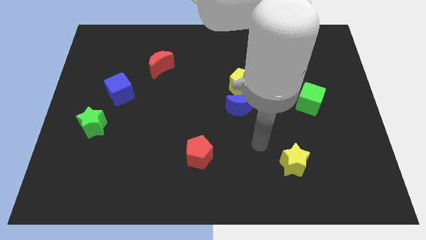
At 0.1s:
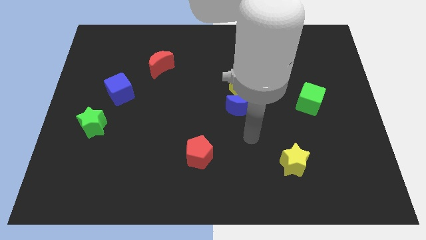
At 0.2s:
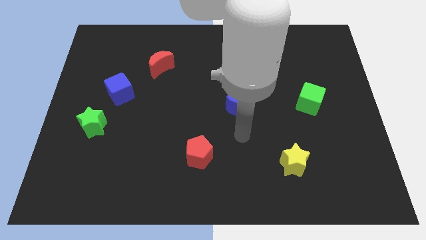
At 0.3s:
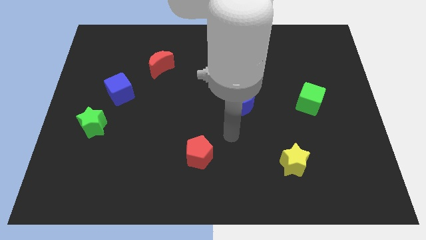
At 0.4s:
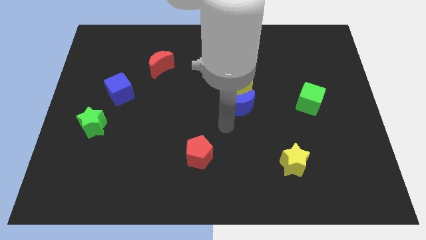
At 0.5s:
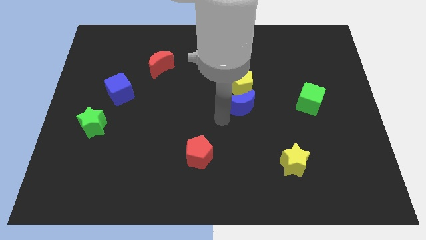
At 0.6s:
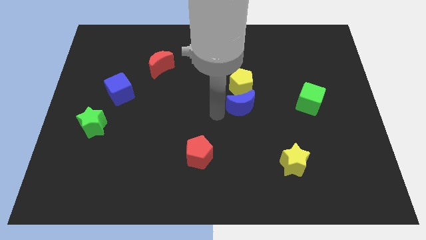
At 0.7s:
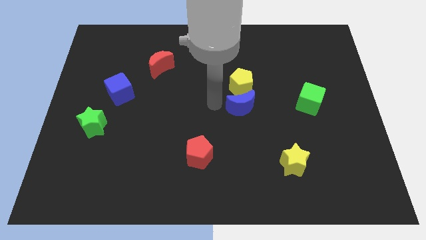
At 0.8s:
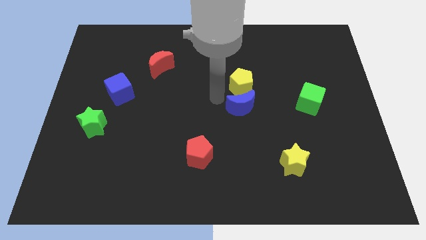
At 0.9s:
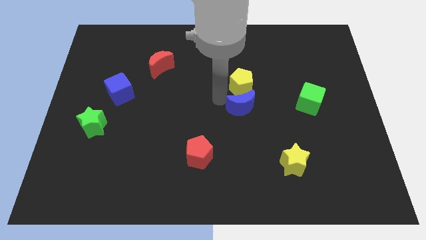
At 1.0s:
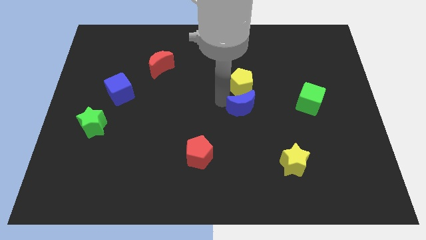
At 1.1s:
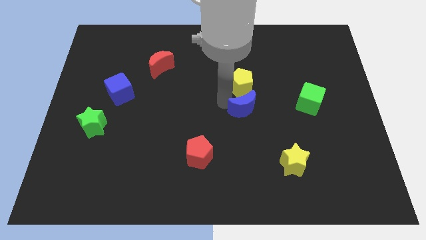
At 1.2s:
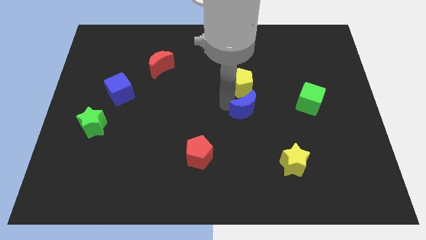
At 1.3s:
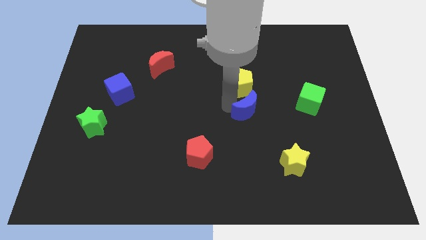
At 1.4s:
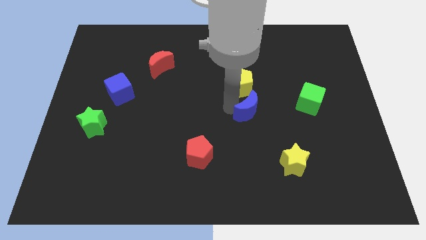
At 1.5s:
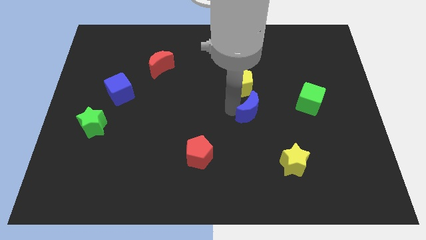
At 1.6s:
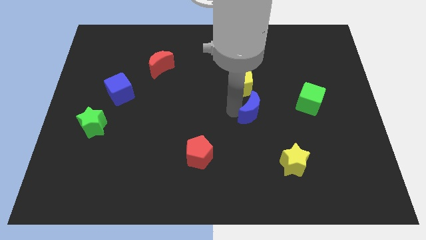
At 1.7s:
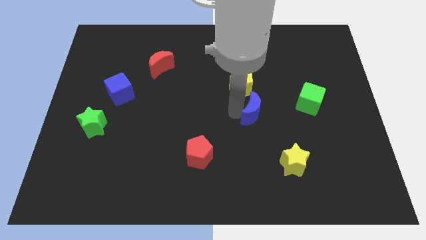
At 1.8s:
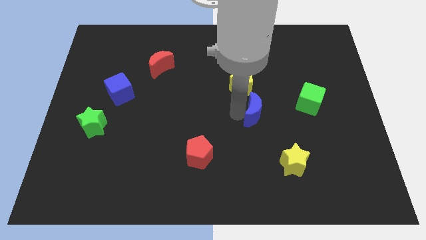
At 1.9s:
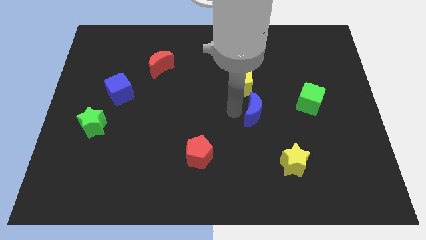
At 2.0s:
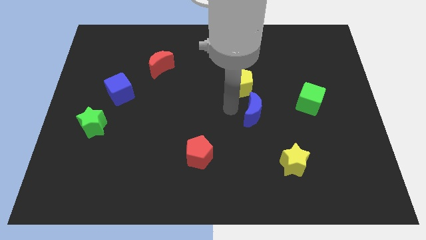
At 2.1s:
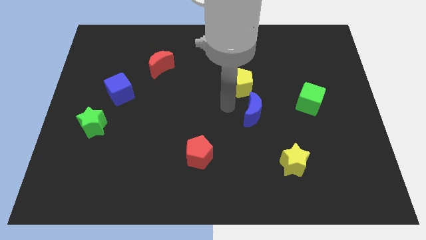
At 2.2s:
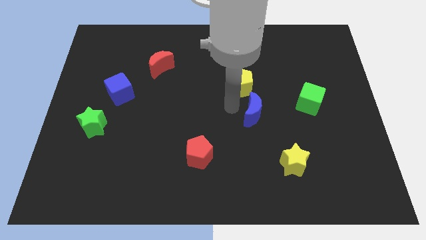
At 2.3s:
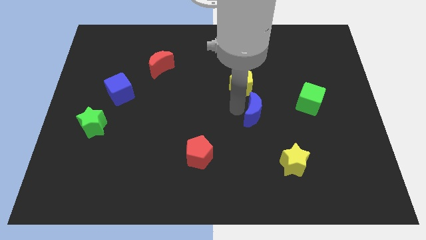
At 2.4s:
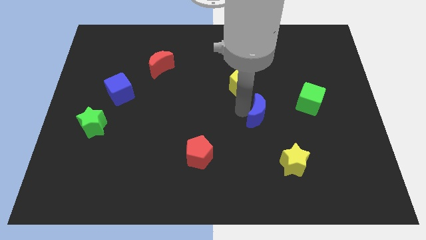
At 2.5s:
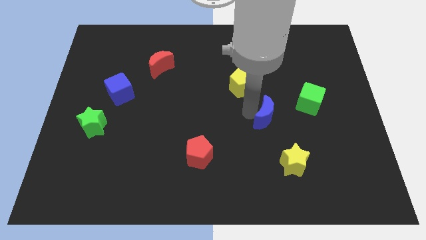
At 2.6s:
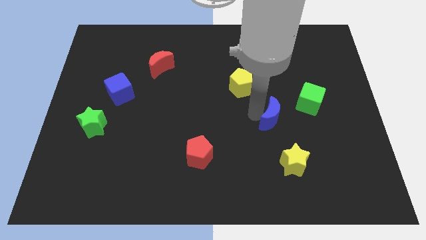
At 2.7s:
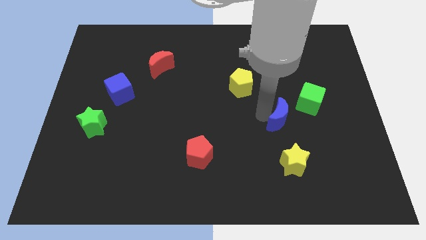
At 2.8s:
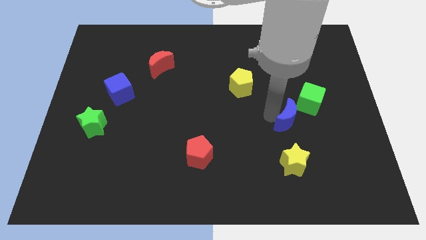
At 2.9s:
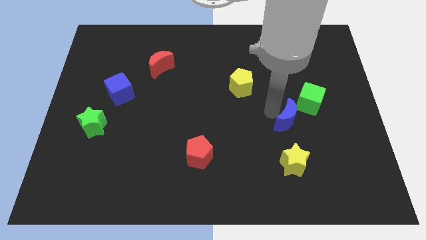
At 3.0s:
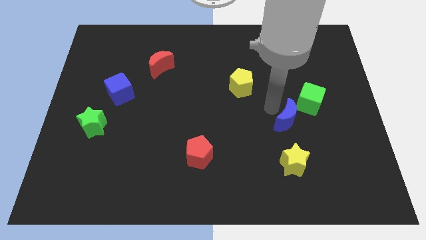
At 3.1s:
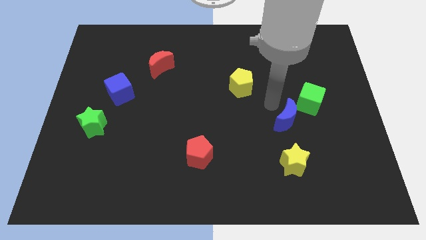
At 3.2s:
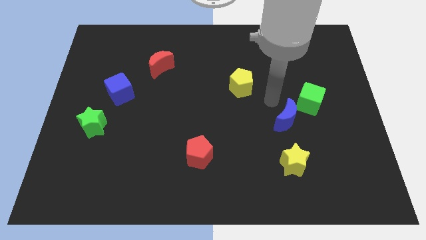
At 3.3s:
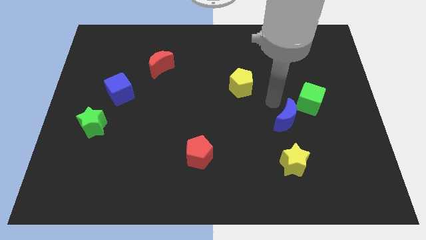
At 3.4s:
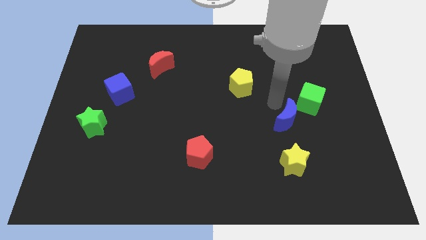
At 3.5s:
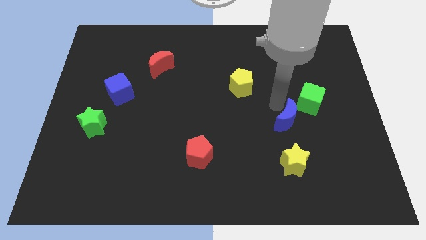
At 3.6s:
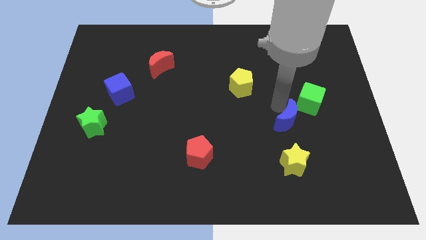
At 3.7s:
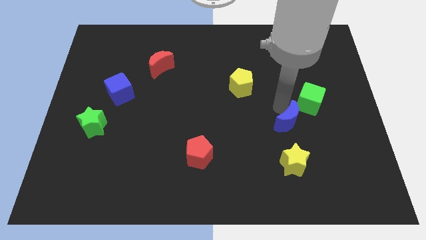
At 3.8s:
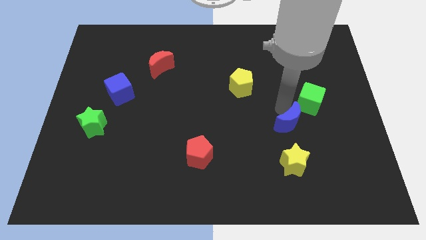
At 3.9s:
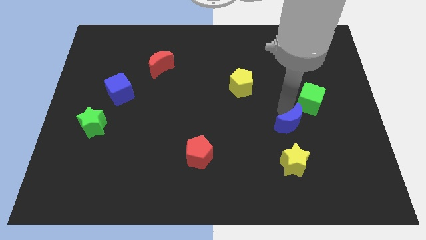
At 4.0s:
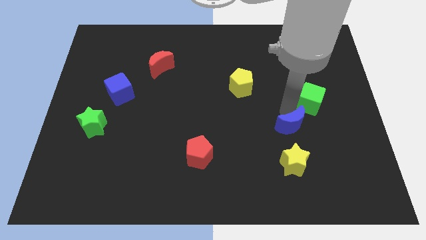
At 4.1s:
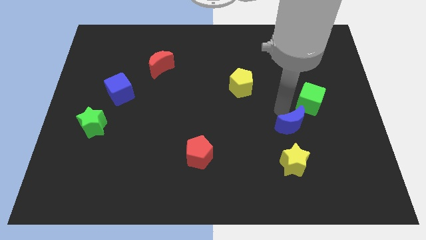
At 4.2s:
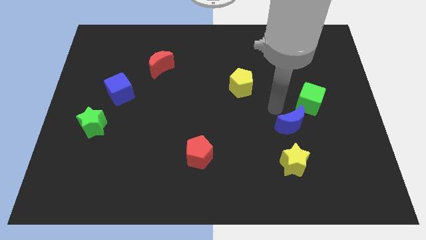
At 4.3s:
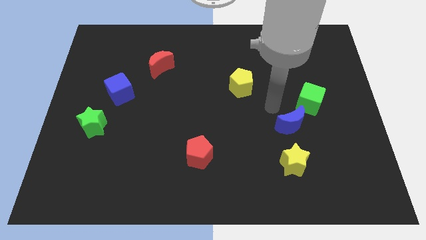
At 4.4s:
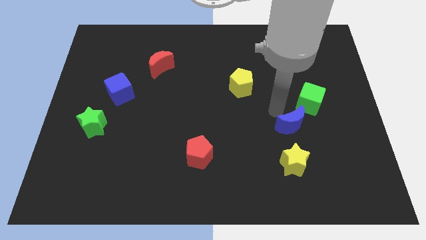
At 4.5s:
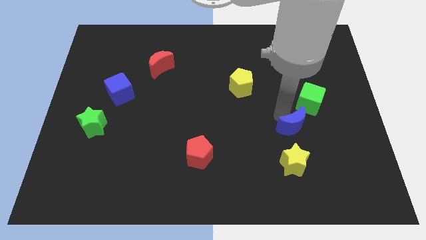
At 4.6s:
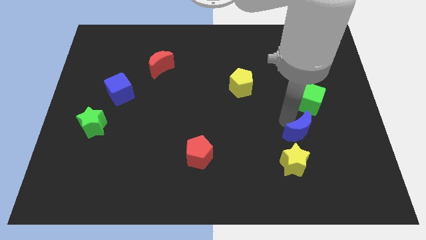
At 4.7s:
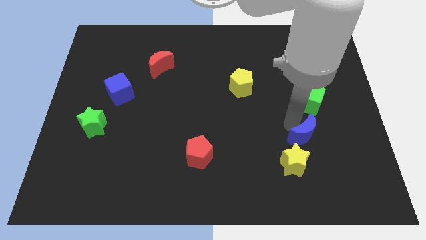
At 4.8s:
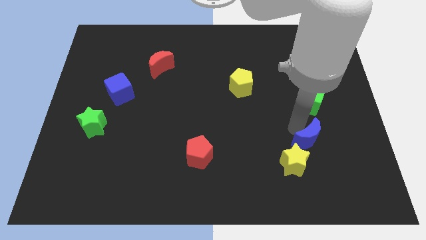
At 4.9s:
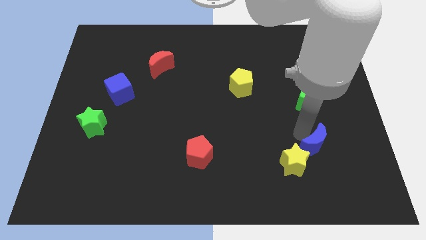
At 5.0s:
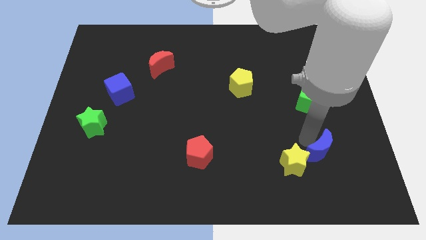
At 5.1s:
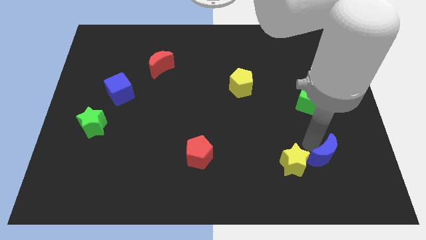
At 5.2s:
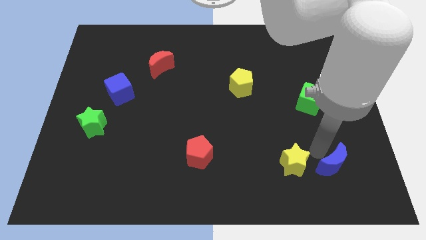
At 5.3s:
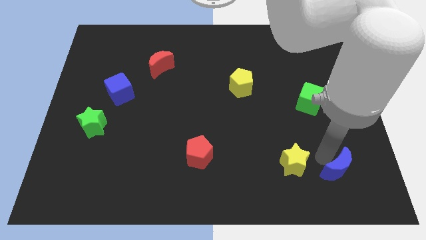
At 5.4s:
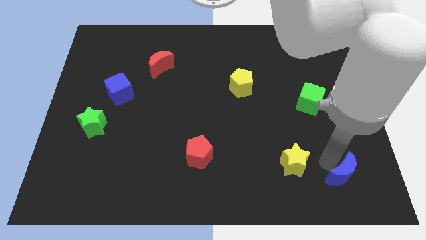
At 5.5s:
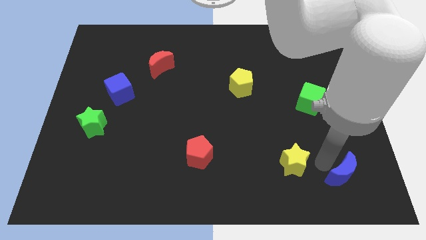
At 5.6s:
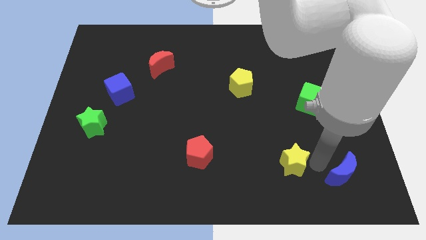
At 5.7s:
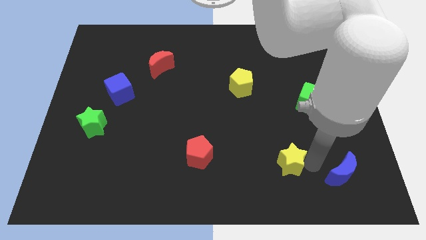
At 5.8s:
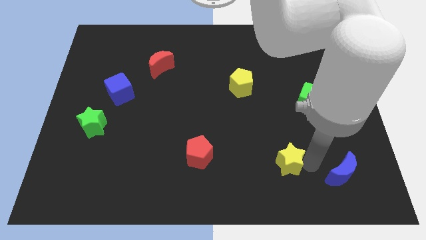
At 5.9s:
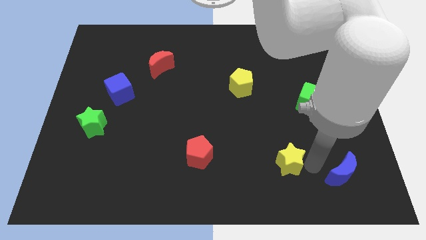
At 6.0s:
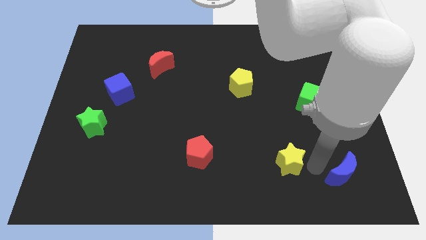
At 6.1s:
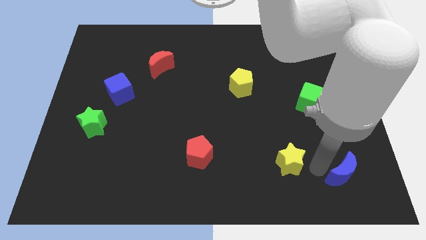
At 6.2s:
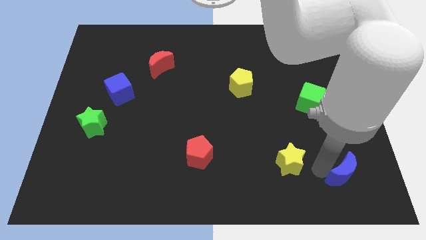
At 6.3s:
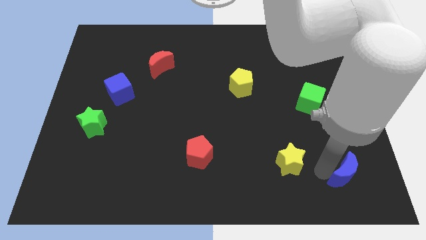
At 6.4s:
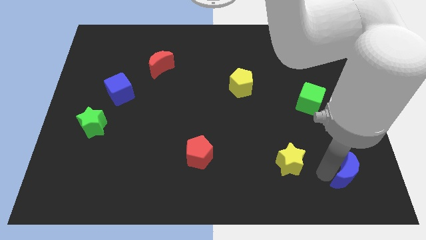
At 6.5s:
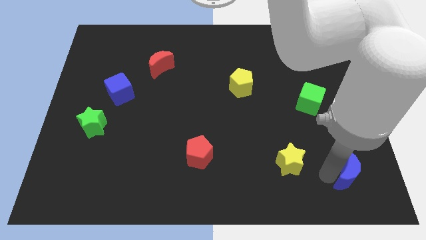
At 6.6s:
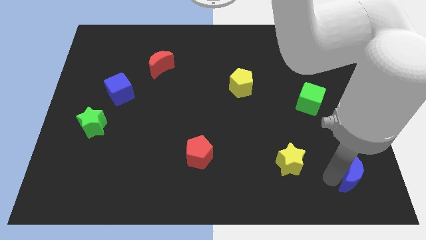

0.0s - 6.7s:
move the blue moon to the bottom right corner

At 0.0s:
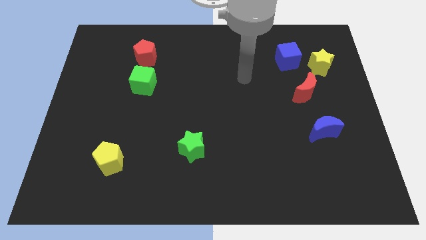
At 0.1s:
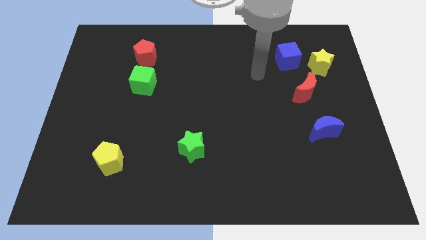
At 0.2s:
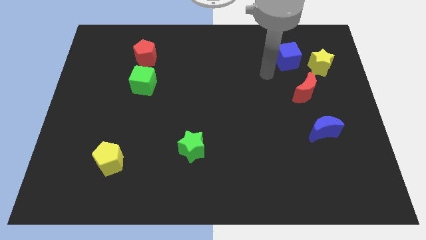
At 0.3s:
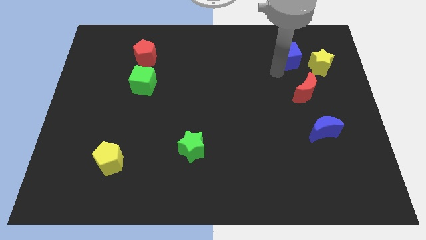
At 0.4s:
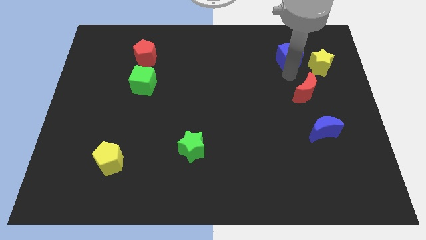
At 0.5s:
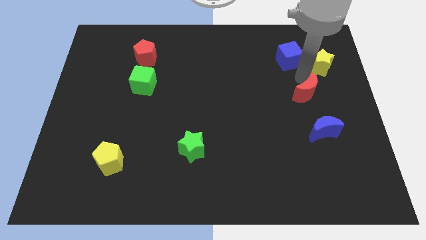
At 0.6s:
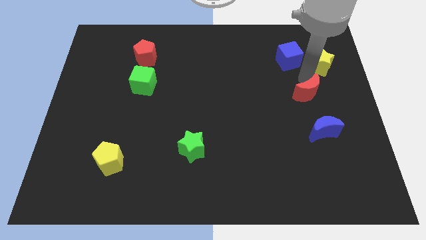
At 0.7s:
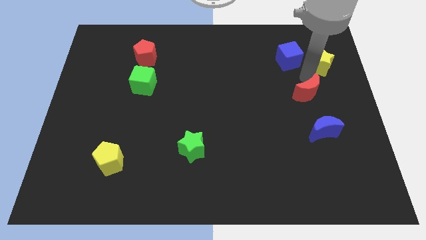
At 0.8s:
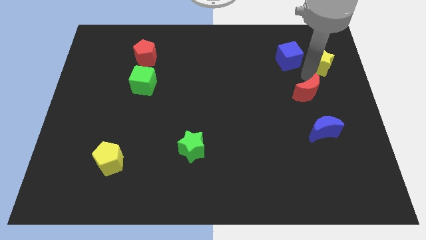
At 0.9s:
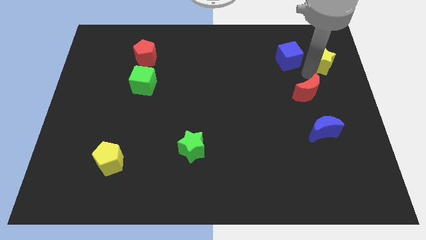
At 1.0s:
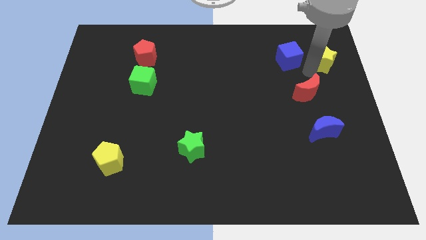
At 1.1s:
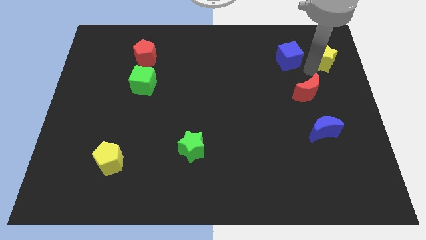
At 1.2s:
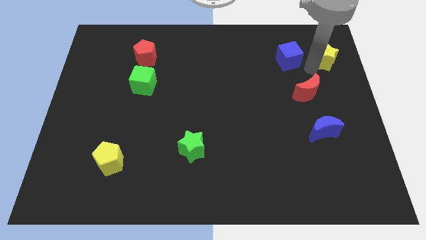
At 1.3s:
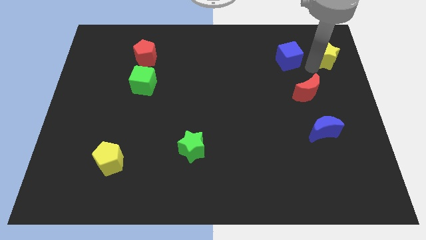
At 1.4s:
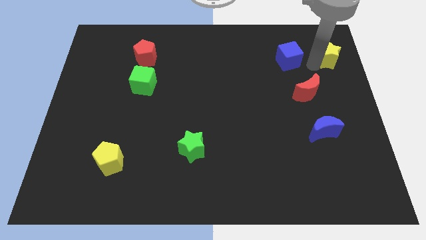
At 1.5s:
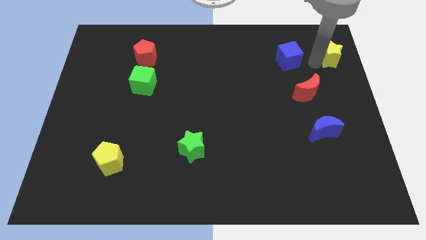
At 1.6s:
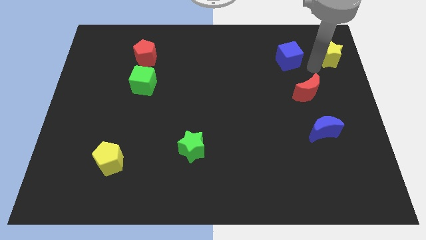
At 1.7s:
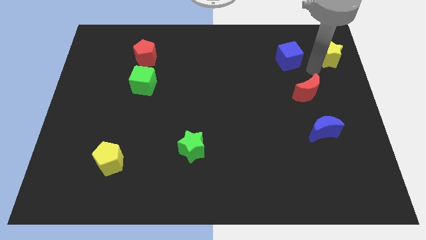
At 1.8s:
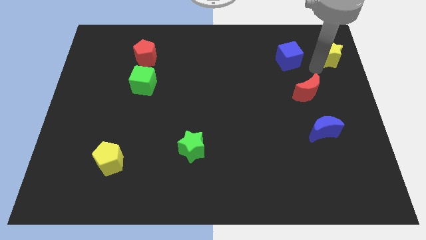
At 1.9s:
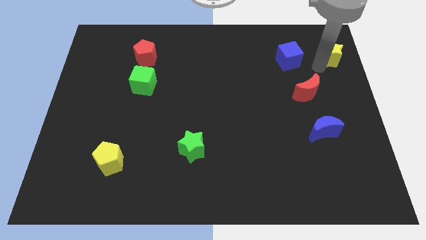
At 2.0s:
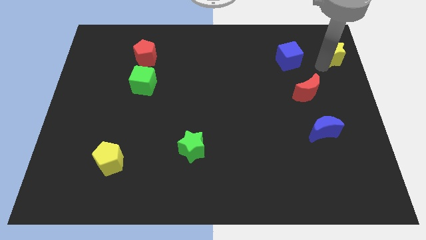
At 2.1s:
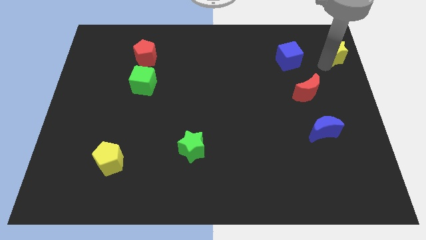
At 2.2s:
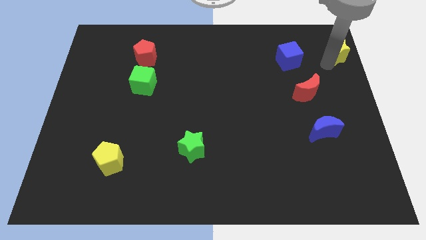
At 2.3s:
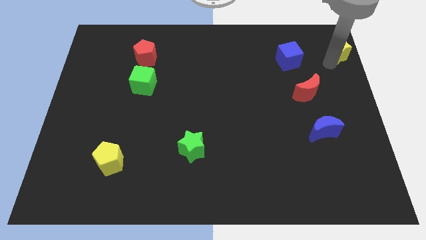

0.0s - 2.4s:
put the yellow star to the top right corner
